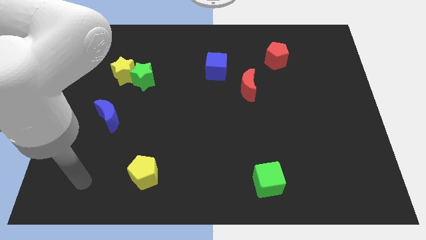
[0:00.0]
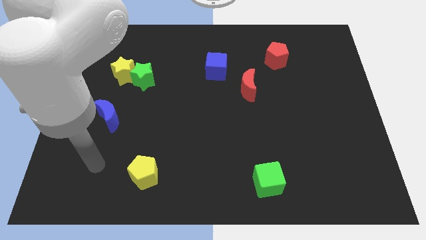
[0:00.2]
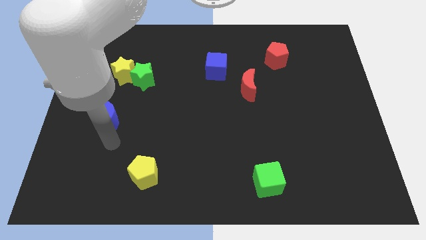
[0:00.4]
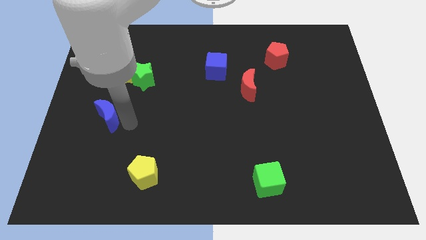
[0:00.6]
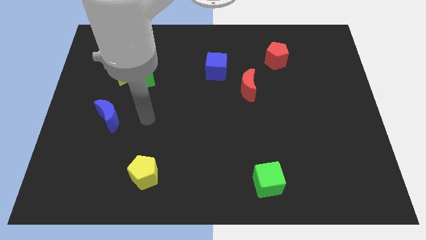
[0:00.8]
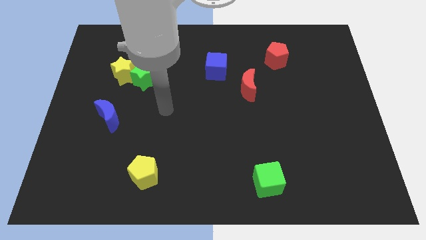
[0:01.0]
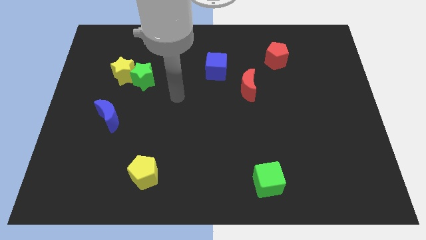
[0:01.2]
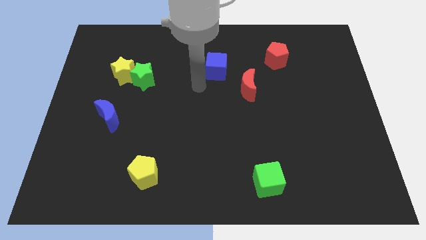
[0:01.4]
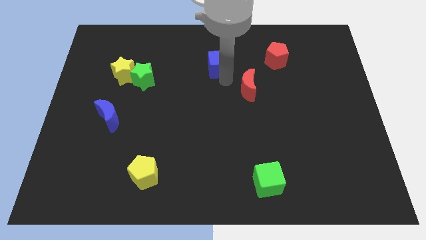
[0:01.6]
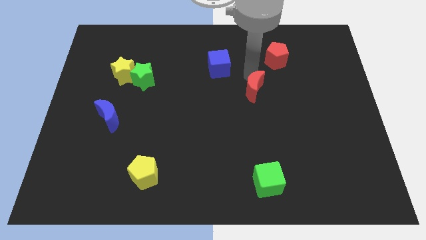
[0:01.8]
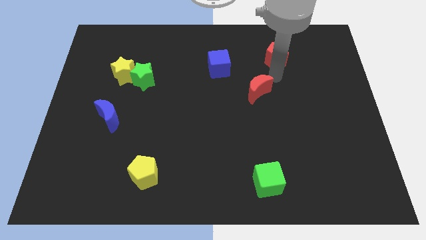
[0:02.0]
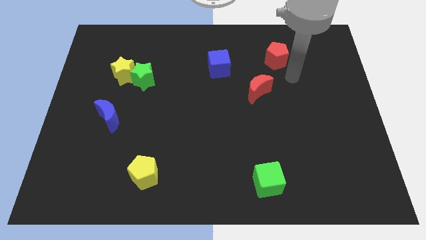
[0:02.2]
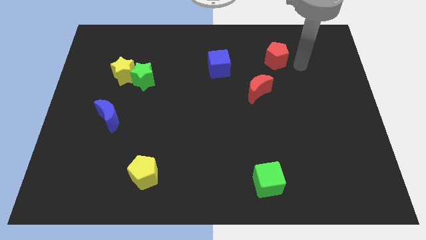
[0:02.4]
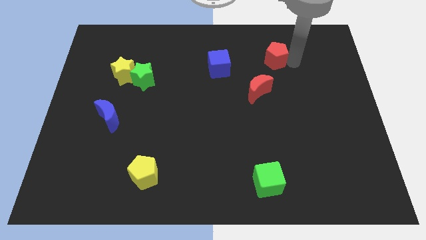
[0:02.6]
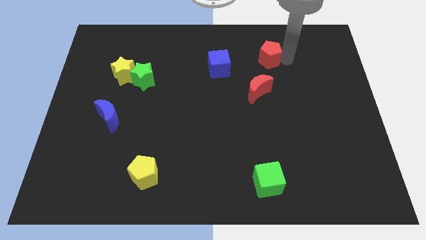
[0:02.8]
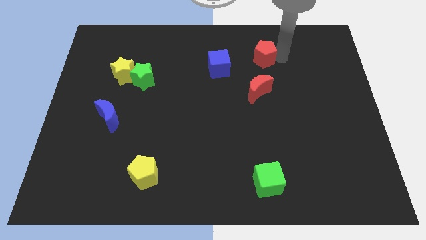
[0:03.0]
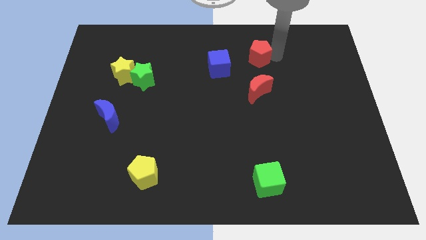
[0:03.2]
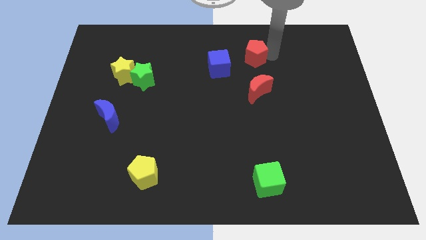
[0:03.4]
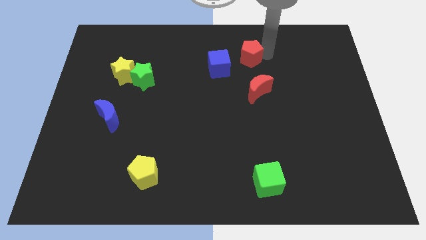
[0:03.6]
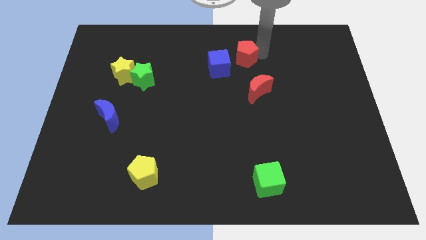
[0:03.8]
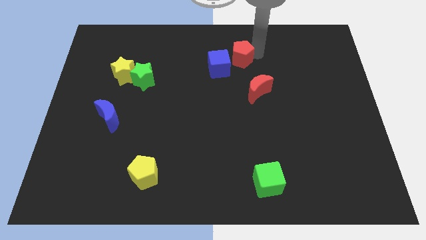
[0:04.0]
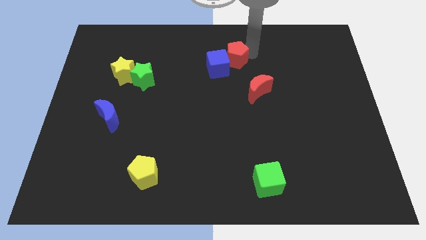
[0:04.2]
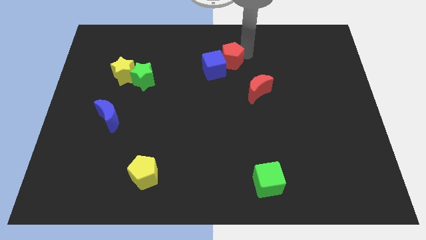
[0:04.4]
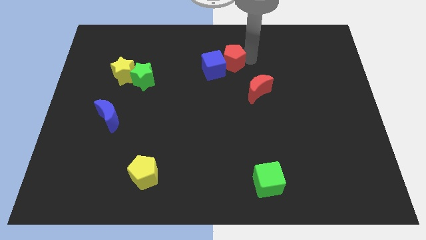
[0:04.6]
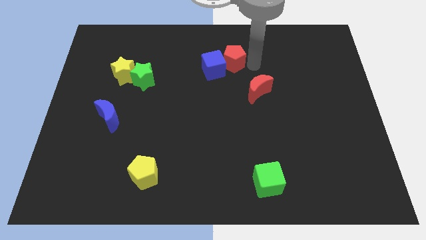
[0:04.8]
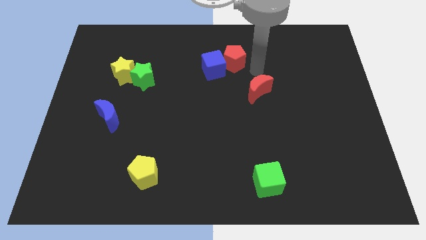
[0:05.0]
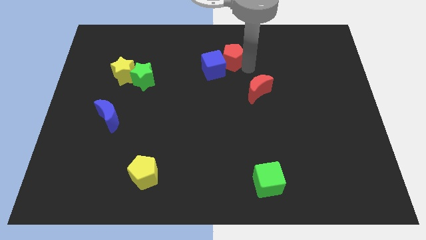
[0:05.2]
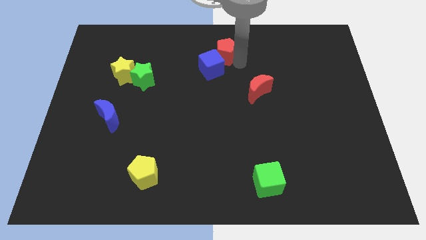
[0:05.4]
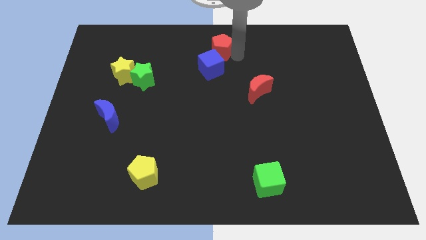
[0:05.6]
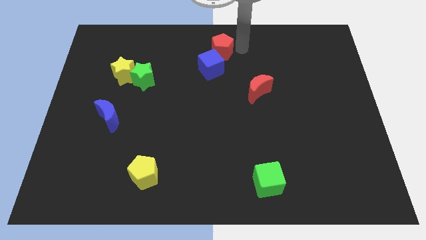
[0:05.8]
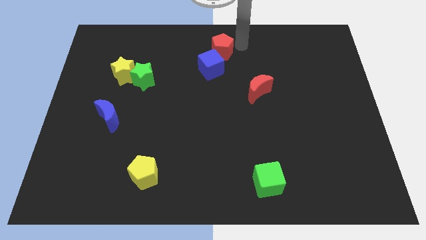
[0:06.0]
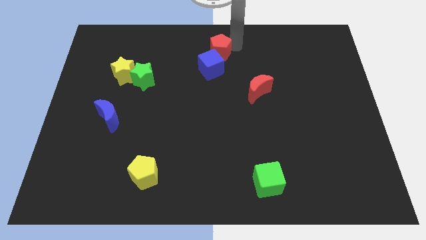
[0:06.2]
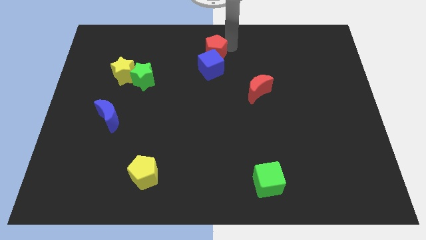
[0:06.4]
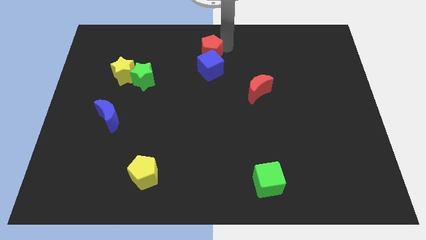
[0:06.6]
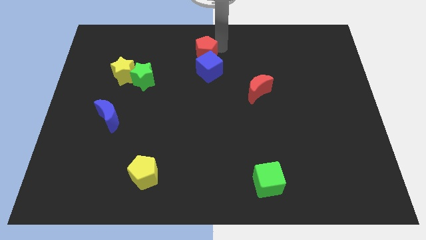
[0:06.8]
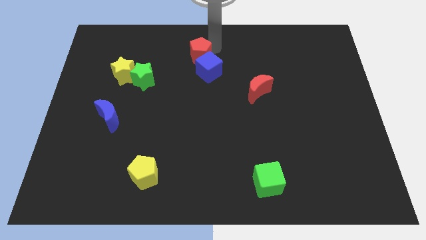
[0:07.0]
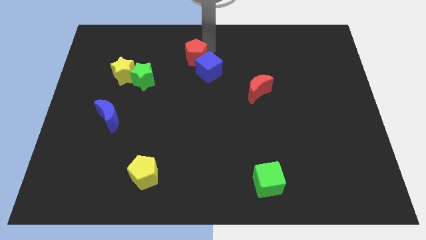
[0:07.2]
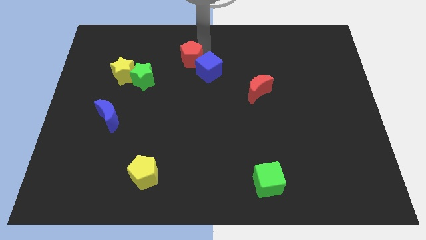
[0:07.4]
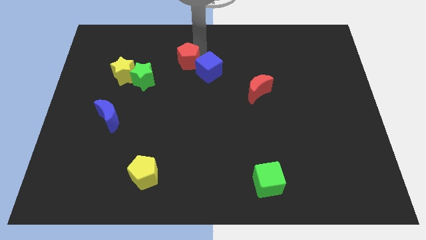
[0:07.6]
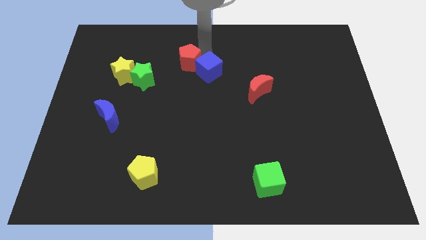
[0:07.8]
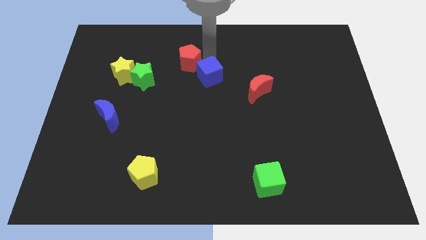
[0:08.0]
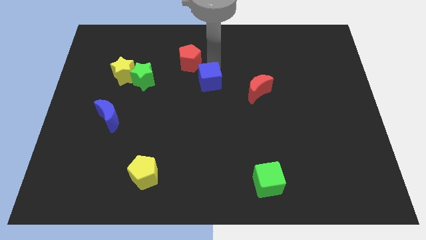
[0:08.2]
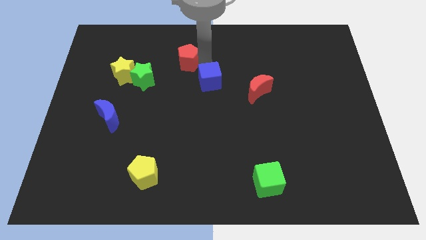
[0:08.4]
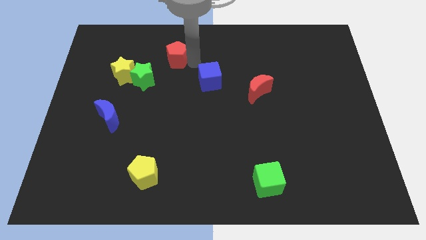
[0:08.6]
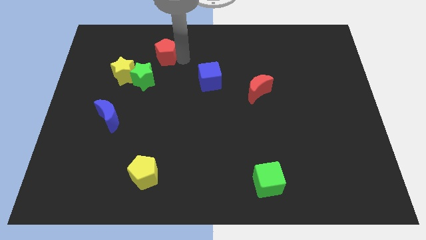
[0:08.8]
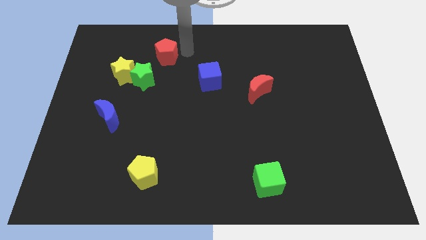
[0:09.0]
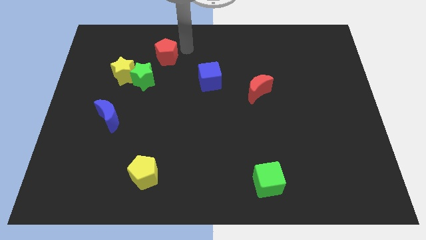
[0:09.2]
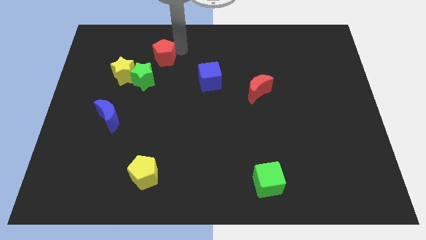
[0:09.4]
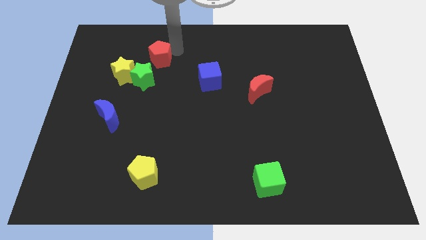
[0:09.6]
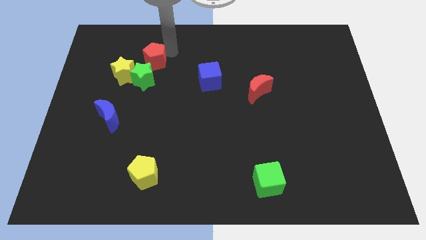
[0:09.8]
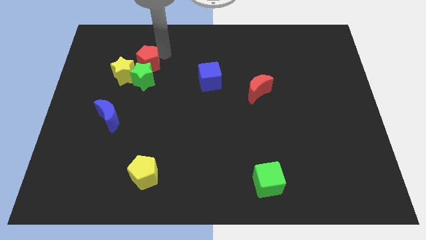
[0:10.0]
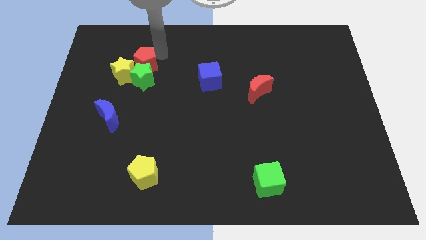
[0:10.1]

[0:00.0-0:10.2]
move the red pentagon next to the yellow star

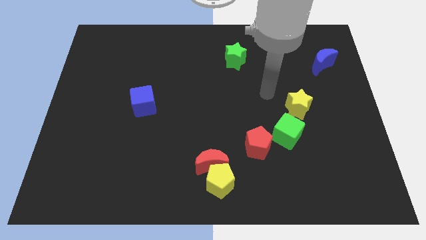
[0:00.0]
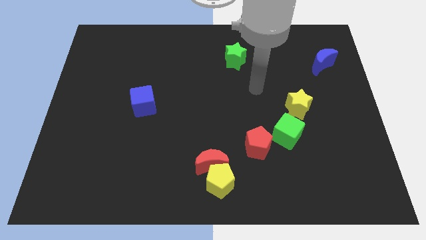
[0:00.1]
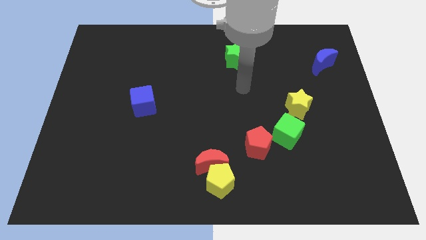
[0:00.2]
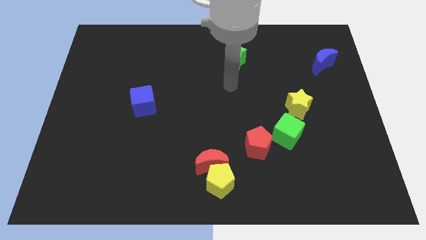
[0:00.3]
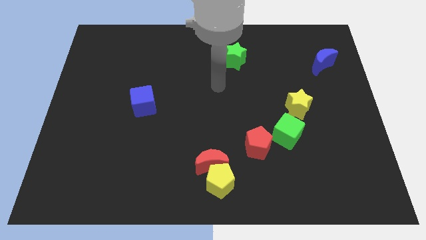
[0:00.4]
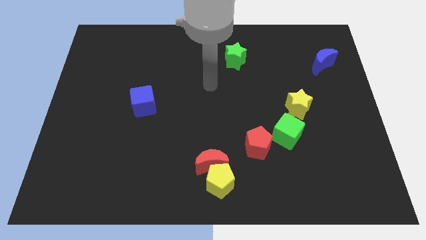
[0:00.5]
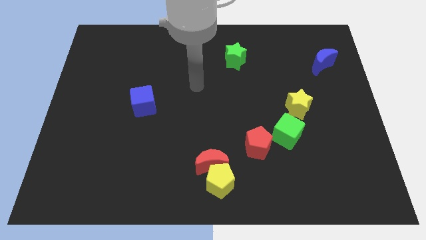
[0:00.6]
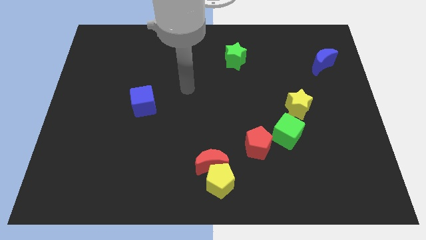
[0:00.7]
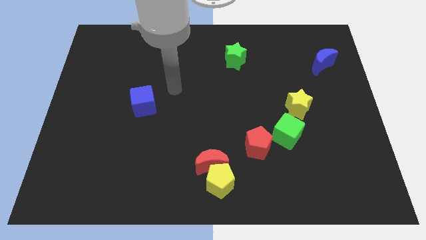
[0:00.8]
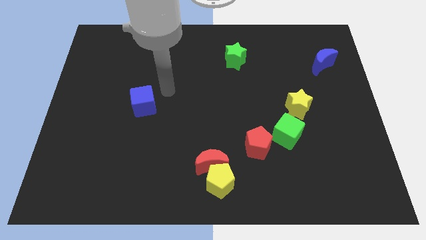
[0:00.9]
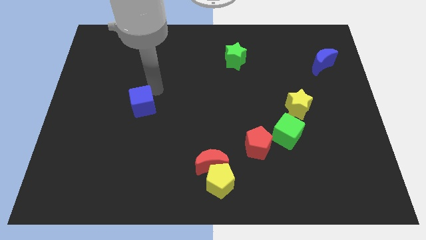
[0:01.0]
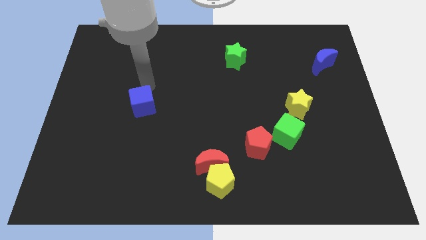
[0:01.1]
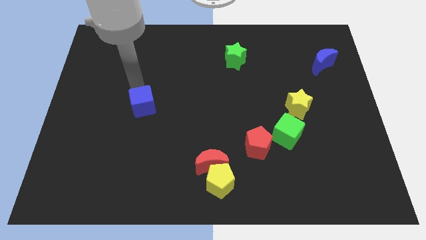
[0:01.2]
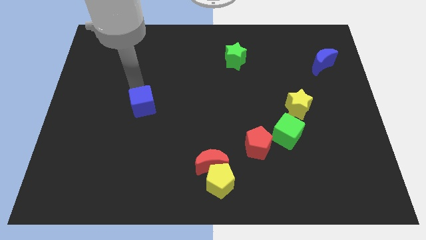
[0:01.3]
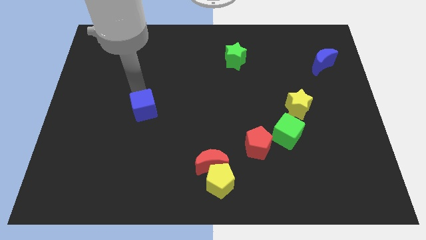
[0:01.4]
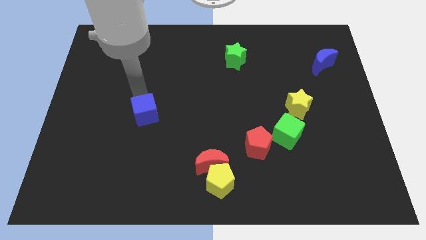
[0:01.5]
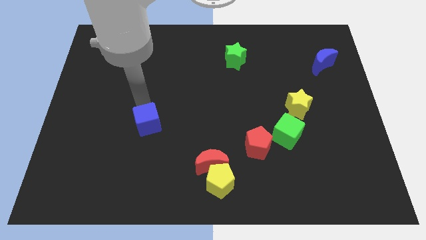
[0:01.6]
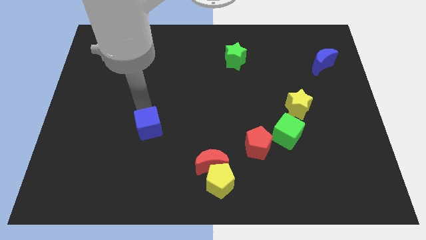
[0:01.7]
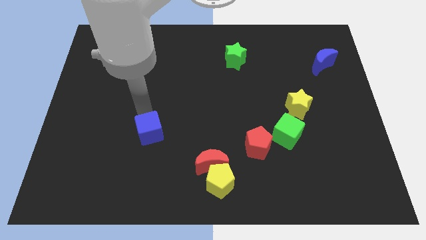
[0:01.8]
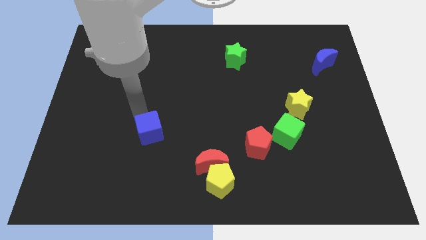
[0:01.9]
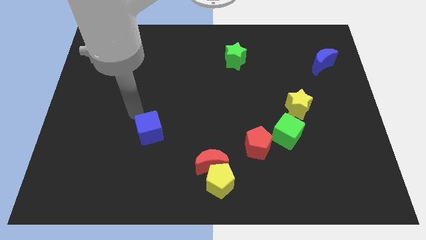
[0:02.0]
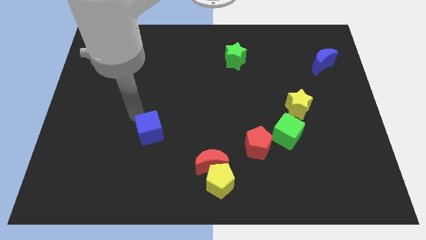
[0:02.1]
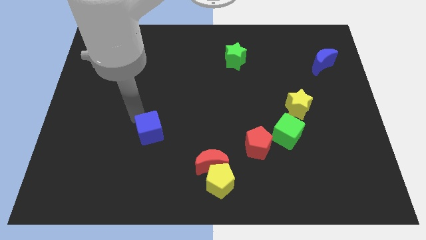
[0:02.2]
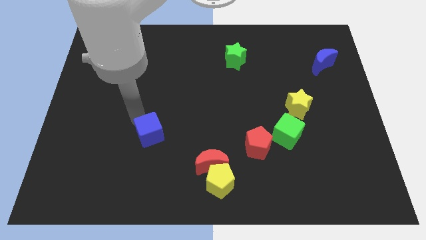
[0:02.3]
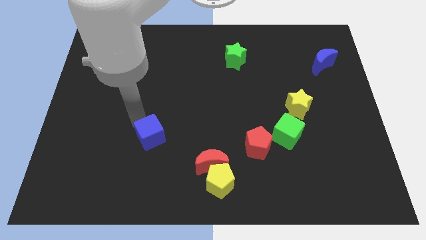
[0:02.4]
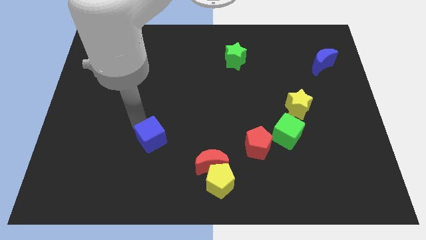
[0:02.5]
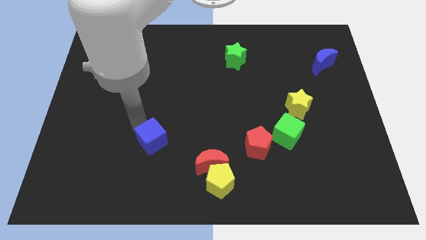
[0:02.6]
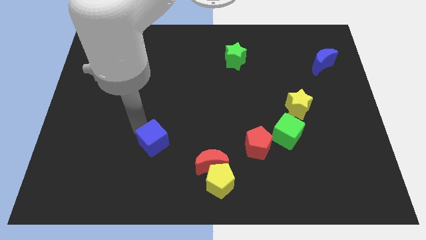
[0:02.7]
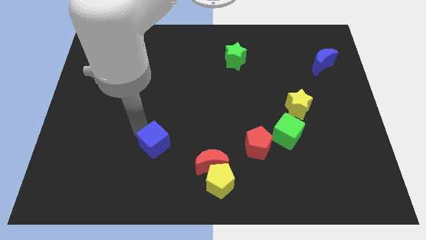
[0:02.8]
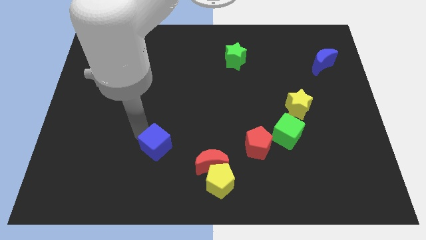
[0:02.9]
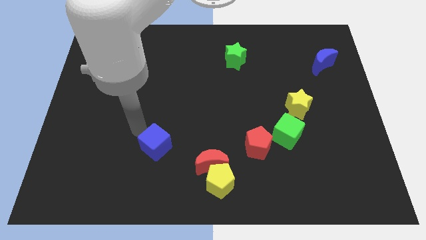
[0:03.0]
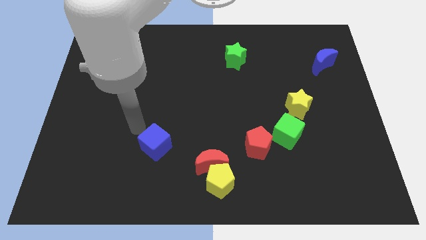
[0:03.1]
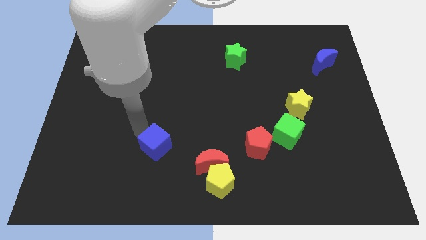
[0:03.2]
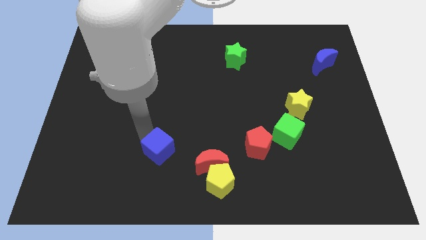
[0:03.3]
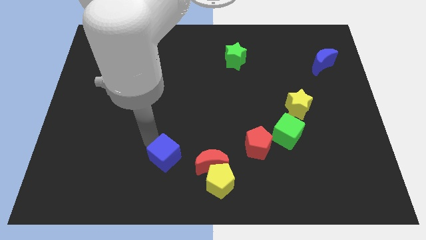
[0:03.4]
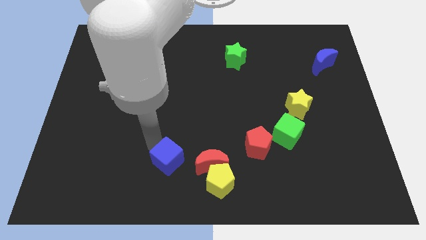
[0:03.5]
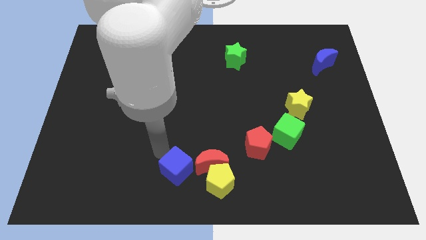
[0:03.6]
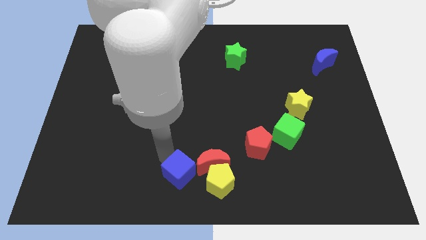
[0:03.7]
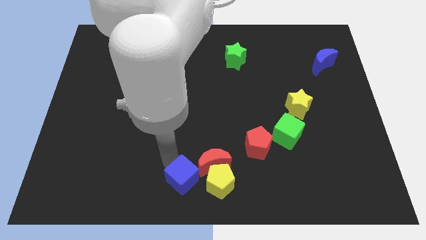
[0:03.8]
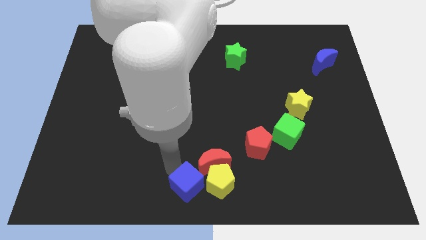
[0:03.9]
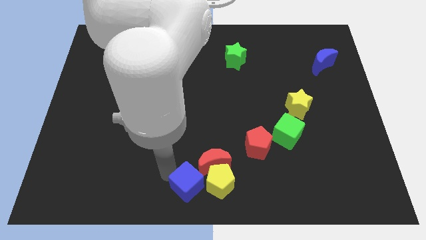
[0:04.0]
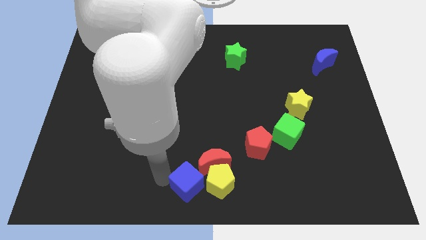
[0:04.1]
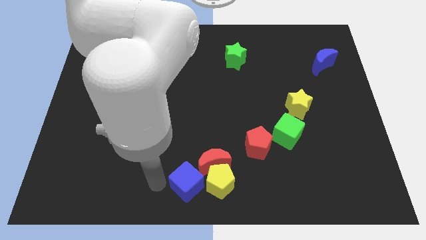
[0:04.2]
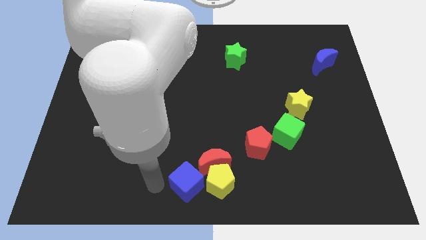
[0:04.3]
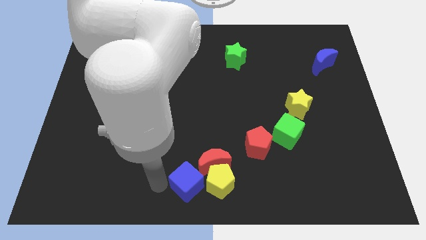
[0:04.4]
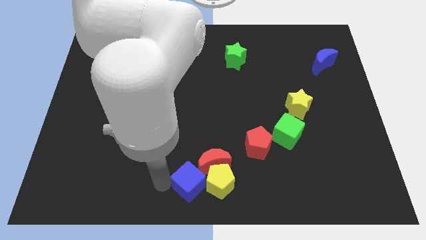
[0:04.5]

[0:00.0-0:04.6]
push the blue cube to the yellow pentagon
